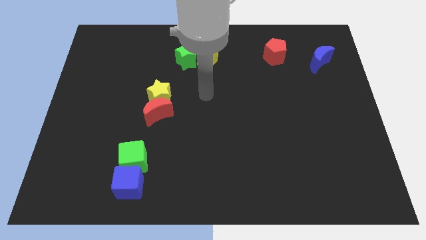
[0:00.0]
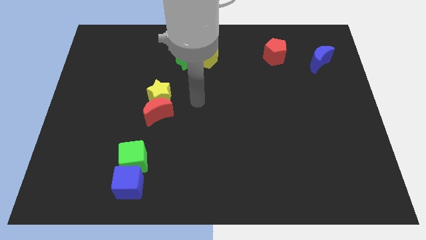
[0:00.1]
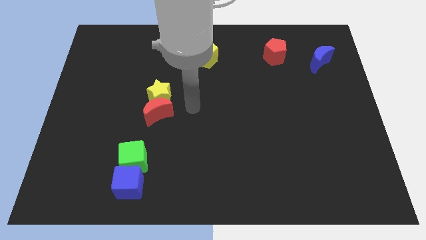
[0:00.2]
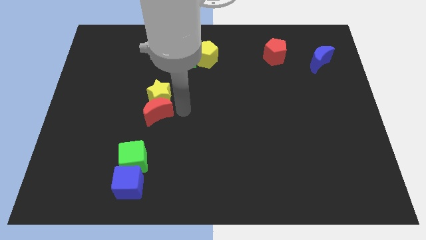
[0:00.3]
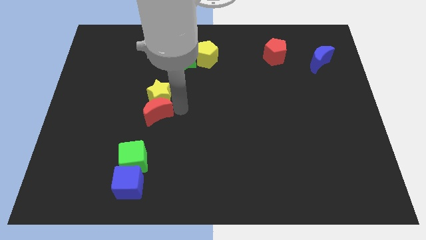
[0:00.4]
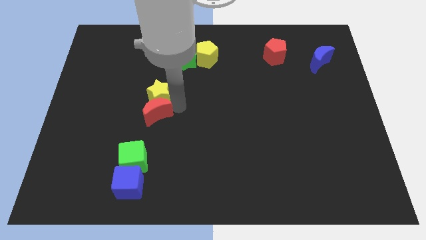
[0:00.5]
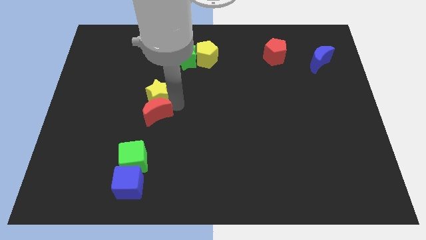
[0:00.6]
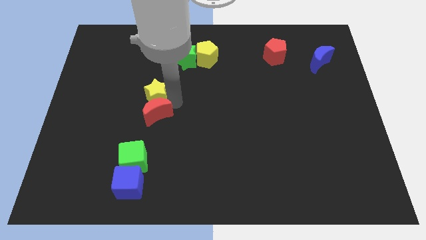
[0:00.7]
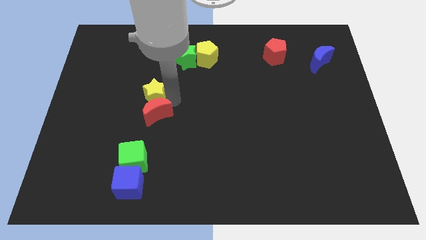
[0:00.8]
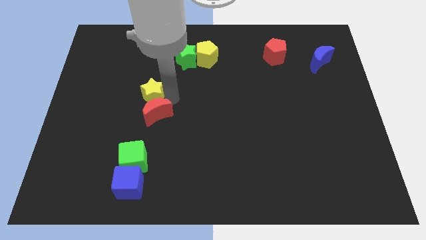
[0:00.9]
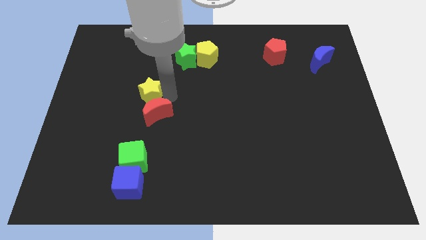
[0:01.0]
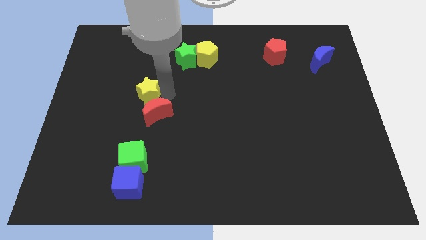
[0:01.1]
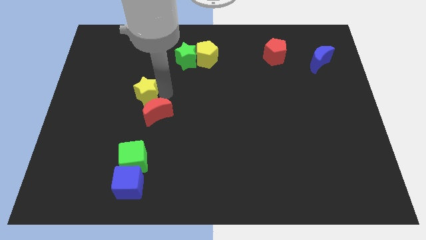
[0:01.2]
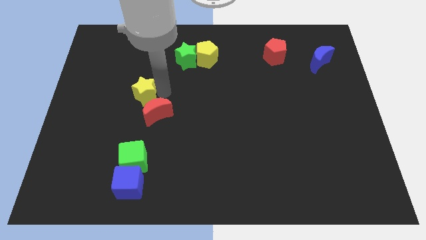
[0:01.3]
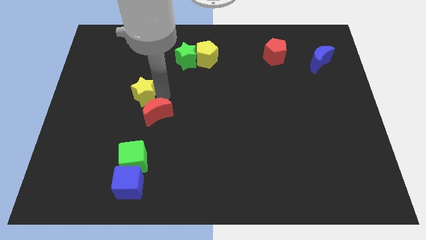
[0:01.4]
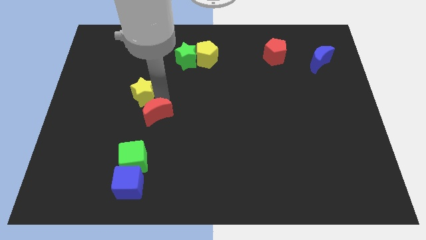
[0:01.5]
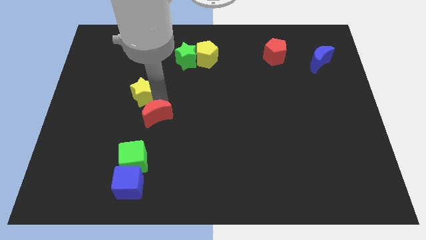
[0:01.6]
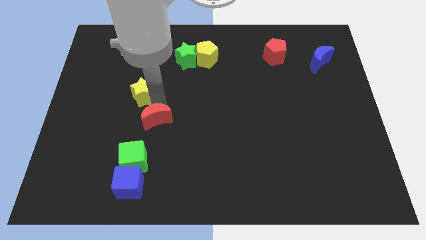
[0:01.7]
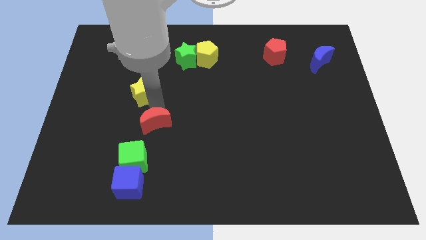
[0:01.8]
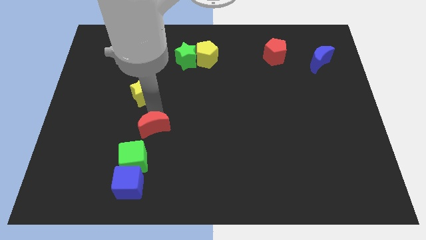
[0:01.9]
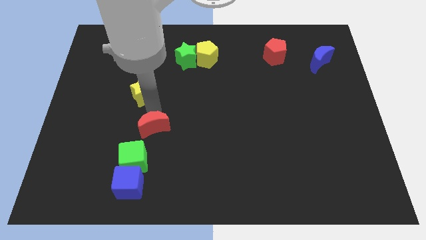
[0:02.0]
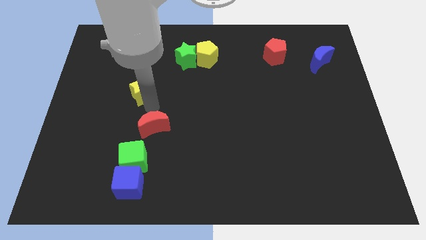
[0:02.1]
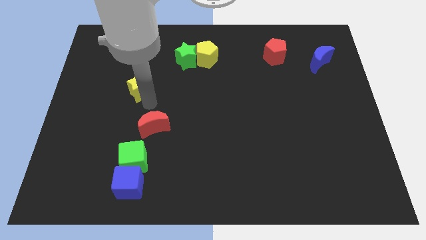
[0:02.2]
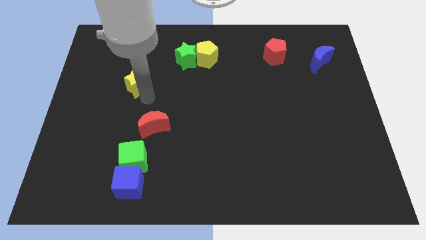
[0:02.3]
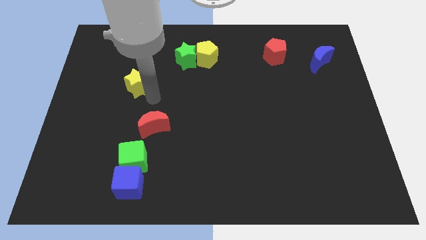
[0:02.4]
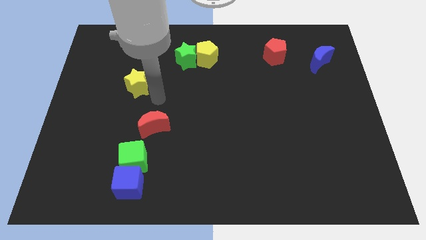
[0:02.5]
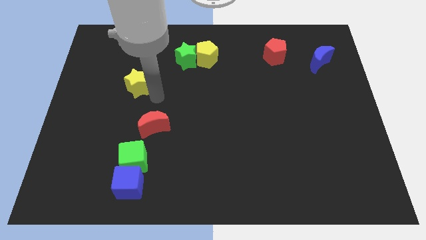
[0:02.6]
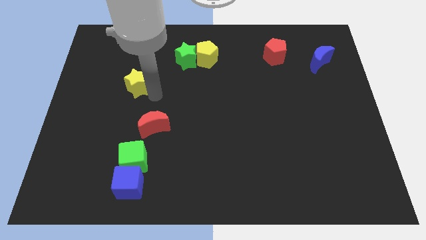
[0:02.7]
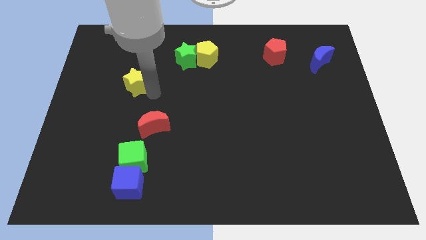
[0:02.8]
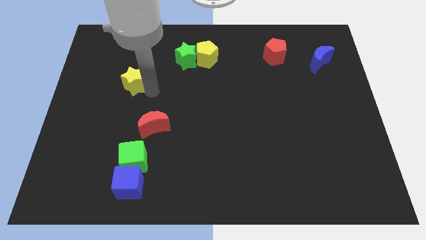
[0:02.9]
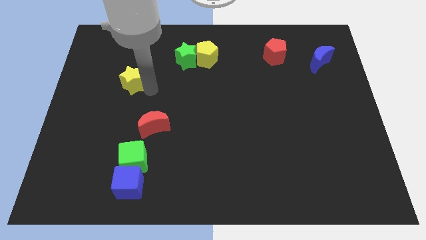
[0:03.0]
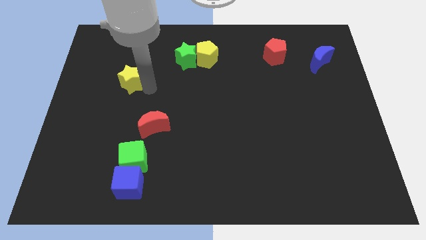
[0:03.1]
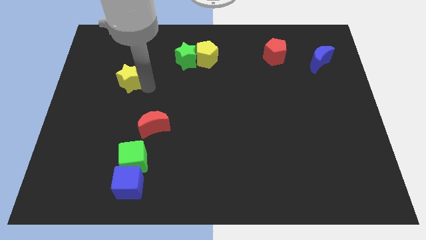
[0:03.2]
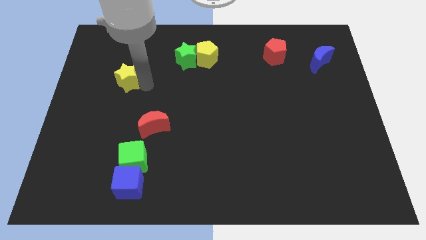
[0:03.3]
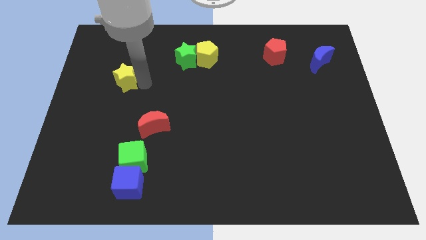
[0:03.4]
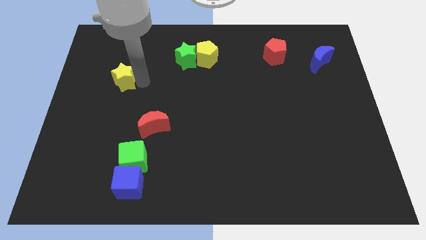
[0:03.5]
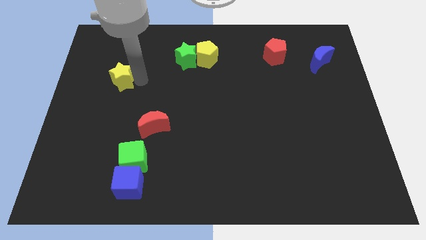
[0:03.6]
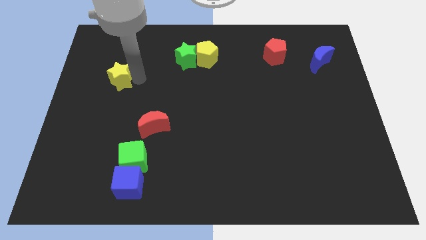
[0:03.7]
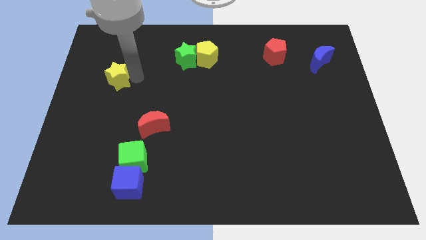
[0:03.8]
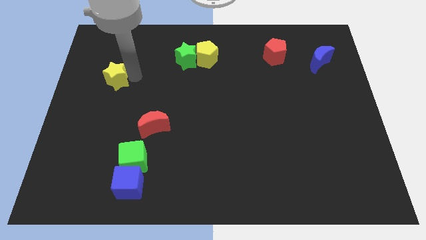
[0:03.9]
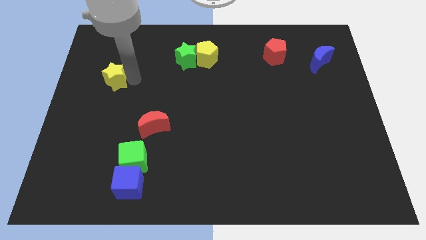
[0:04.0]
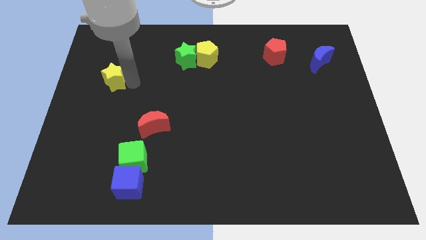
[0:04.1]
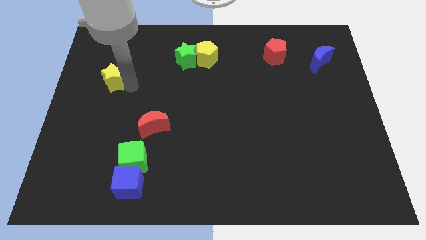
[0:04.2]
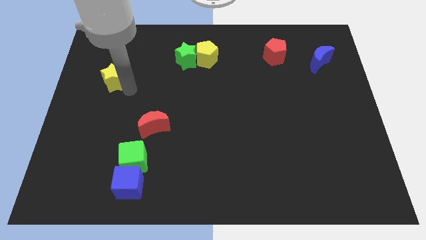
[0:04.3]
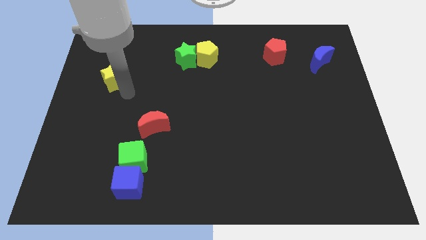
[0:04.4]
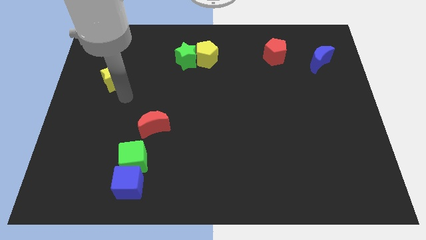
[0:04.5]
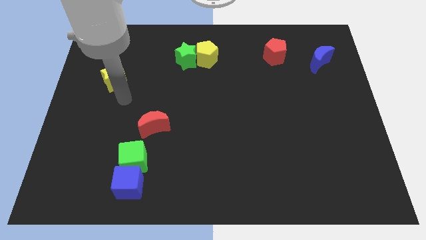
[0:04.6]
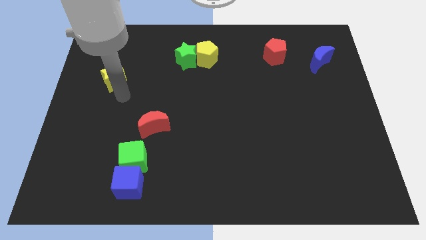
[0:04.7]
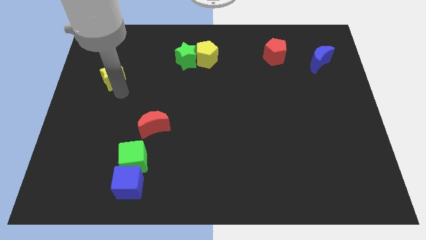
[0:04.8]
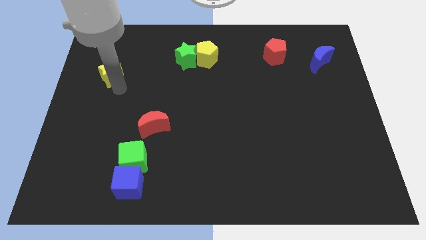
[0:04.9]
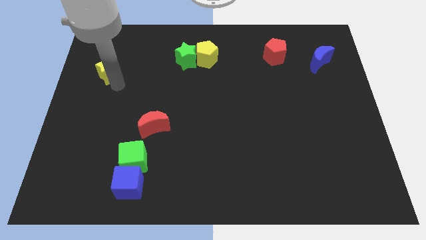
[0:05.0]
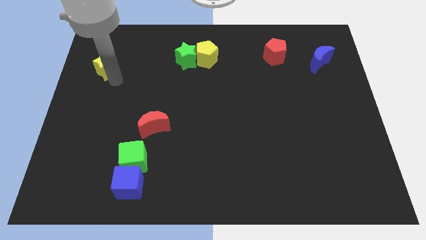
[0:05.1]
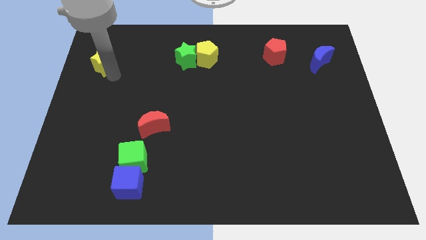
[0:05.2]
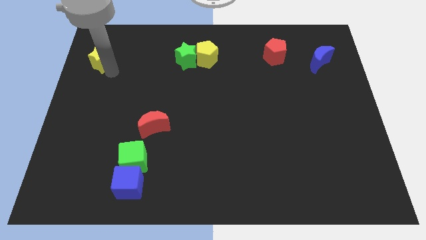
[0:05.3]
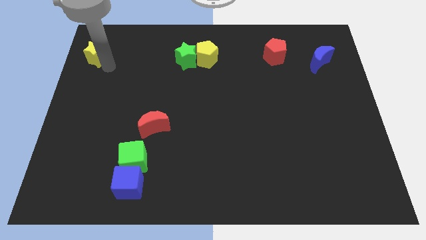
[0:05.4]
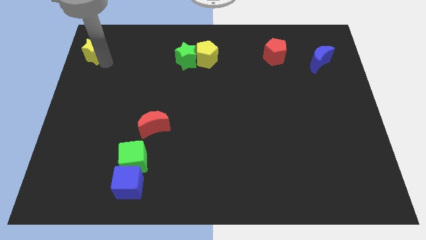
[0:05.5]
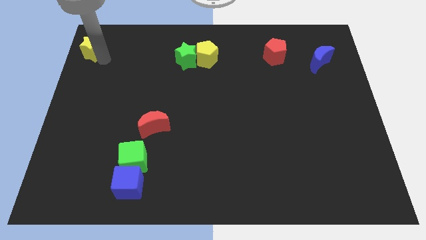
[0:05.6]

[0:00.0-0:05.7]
slide the yellow star to the upper left corner

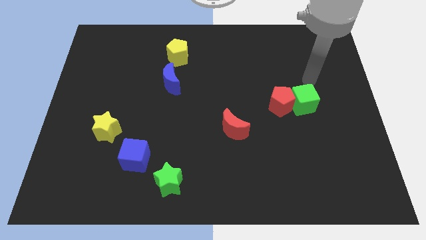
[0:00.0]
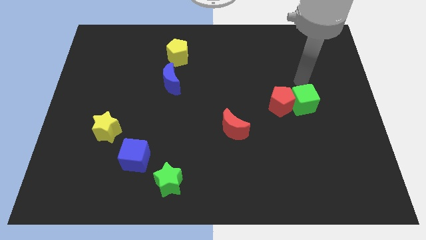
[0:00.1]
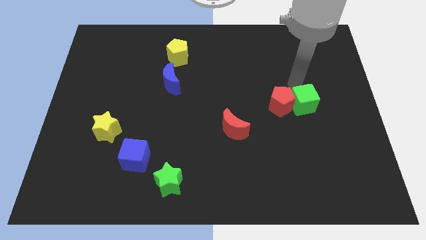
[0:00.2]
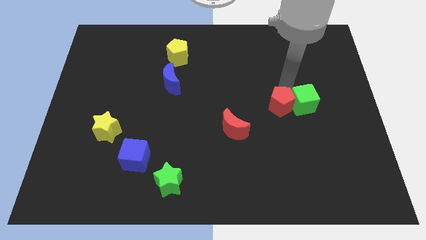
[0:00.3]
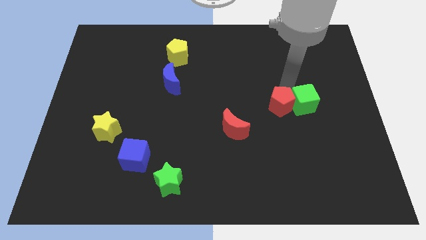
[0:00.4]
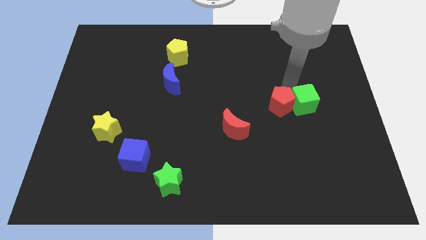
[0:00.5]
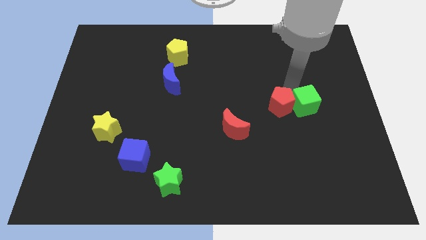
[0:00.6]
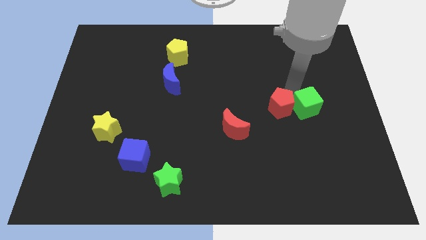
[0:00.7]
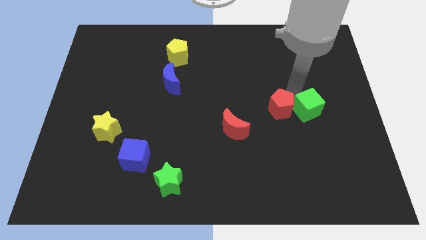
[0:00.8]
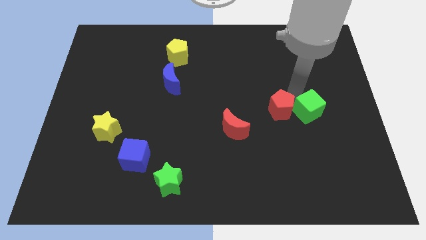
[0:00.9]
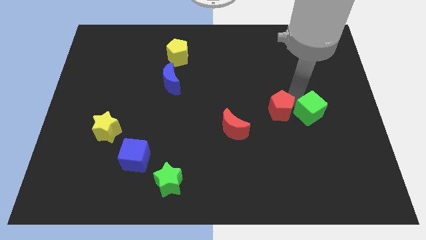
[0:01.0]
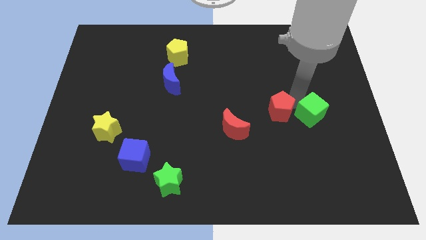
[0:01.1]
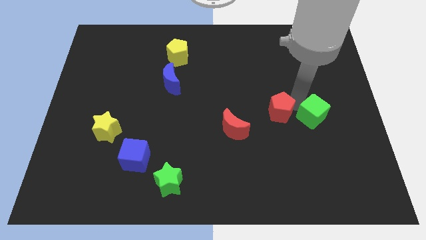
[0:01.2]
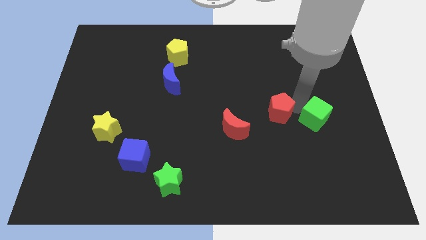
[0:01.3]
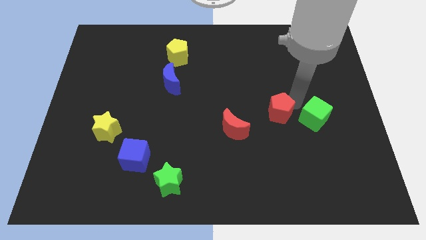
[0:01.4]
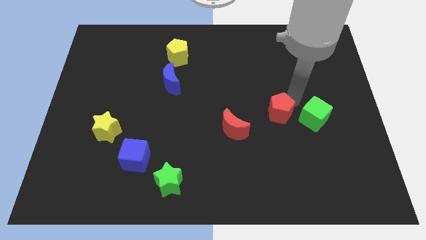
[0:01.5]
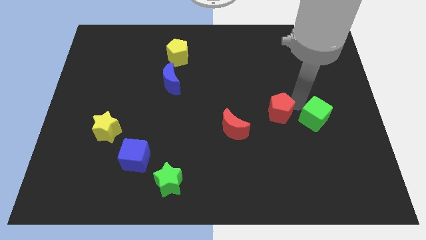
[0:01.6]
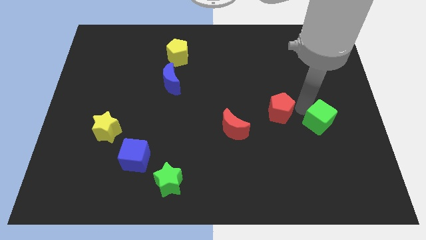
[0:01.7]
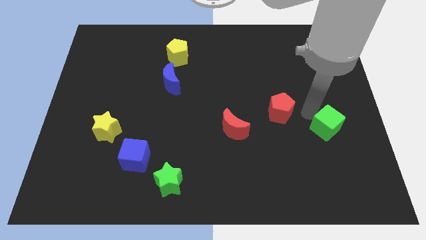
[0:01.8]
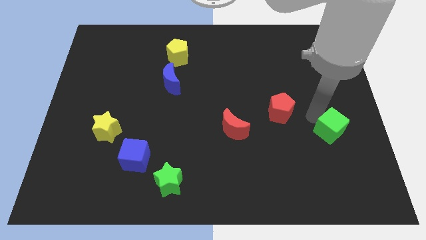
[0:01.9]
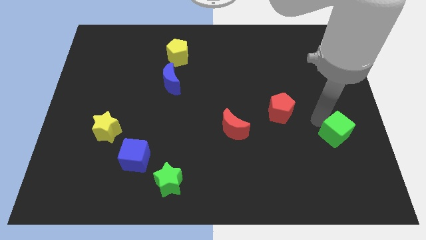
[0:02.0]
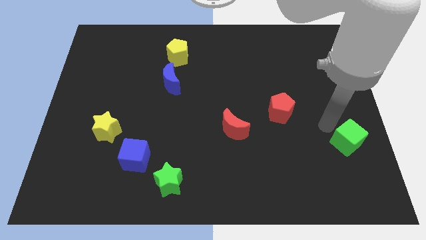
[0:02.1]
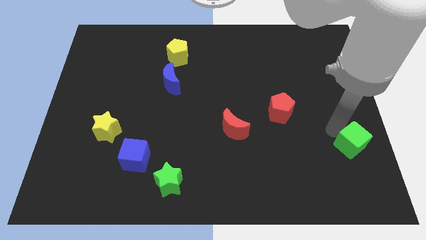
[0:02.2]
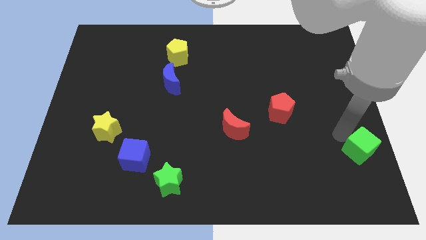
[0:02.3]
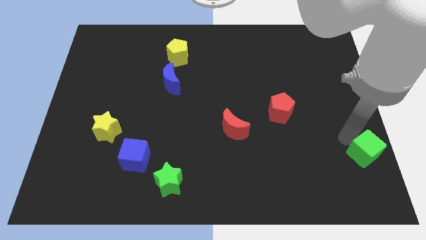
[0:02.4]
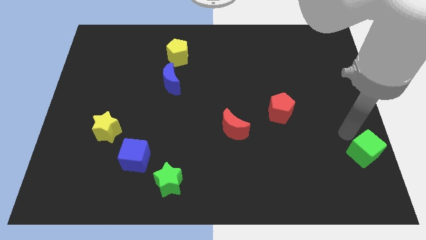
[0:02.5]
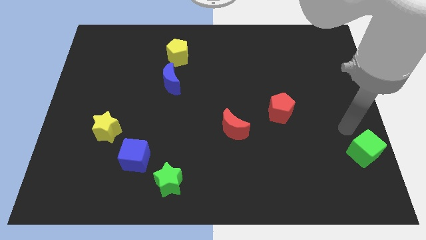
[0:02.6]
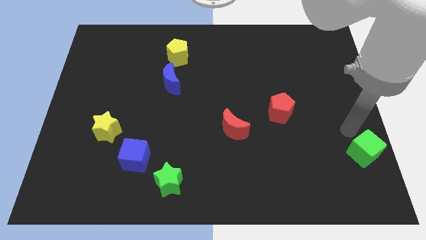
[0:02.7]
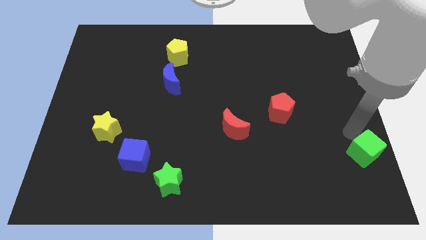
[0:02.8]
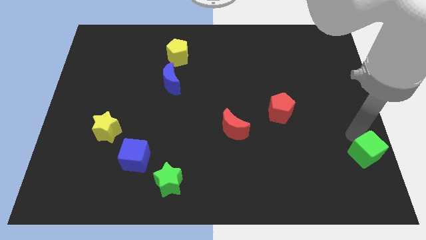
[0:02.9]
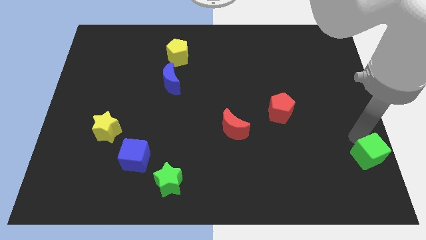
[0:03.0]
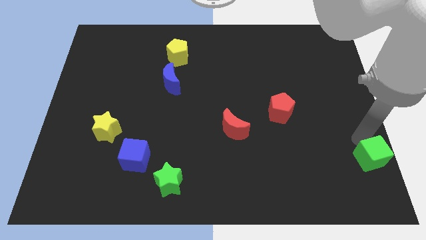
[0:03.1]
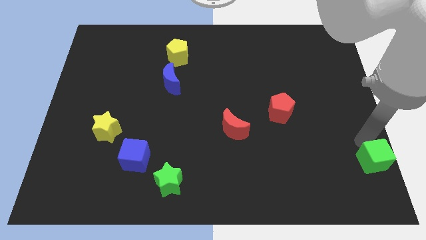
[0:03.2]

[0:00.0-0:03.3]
put the green cube to the bottom right of the board
